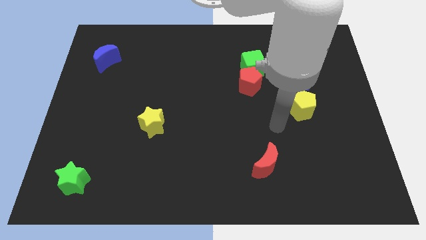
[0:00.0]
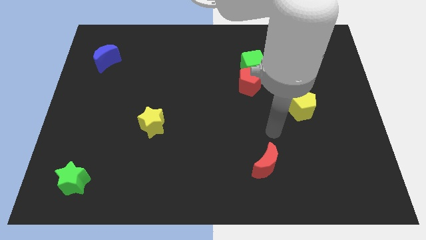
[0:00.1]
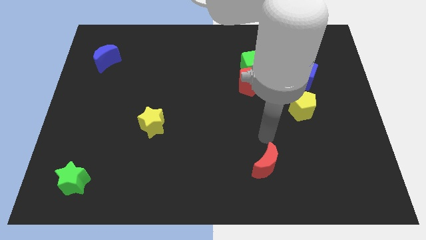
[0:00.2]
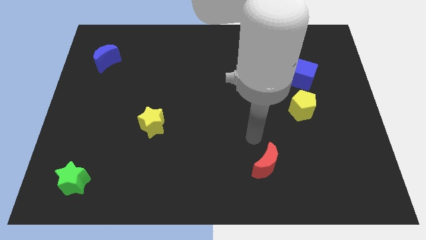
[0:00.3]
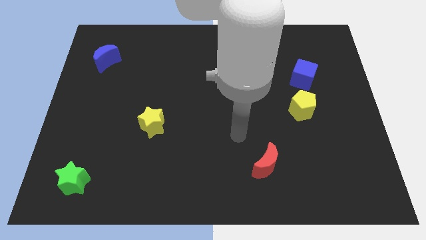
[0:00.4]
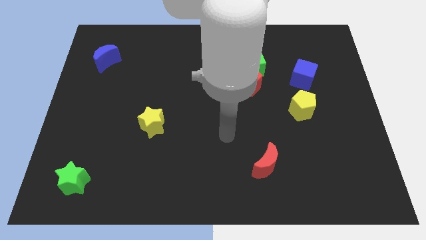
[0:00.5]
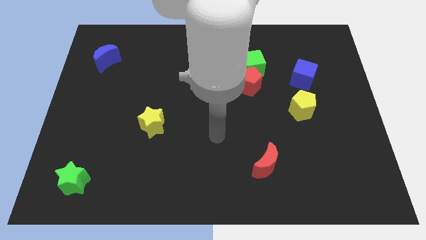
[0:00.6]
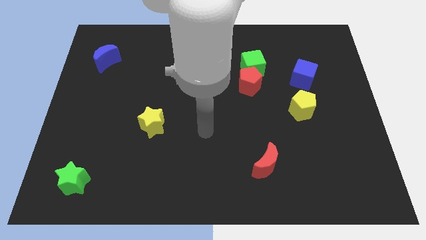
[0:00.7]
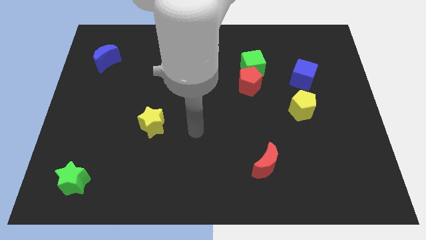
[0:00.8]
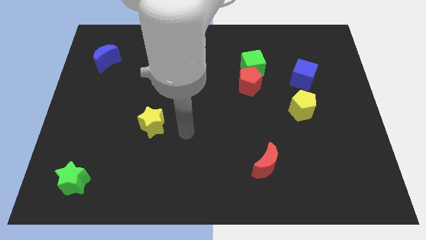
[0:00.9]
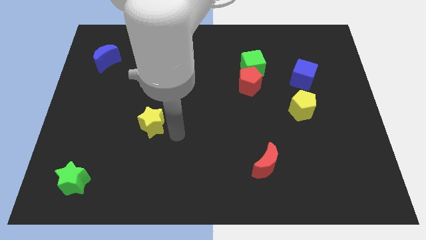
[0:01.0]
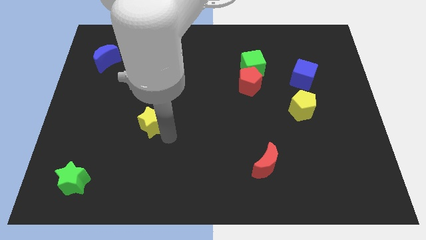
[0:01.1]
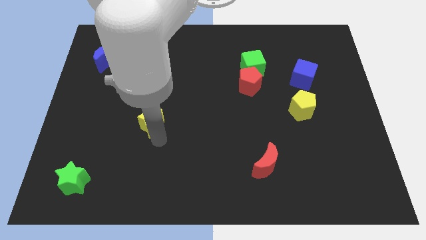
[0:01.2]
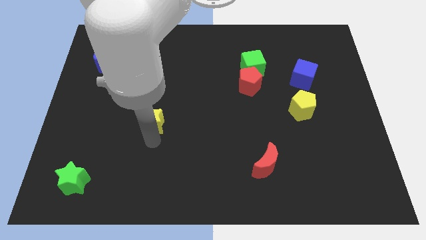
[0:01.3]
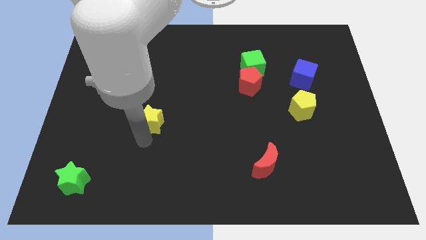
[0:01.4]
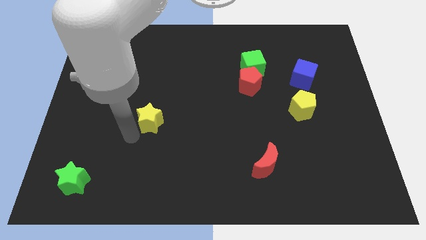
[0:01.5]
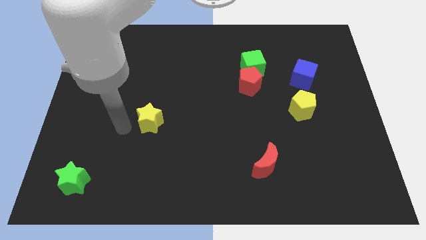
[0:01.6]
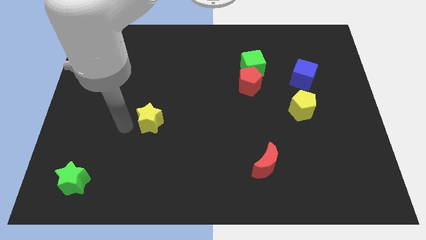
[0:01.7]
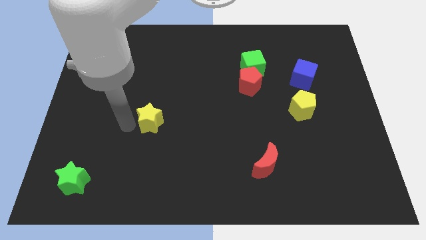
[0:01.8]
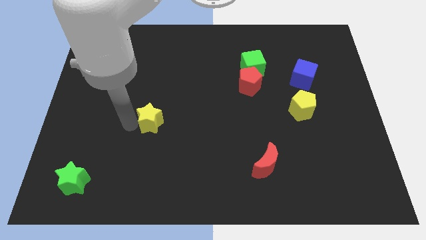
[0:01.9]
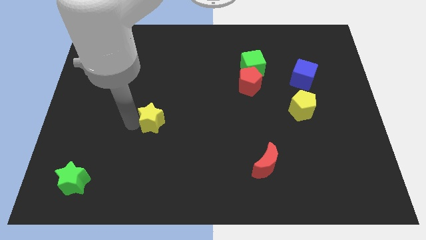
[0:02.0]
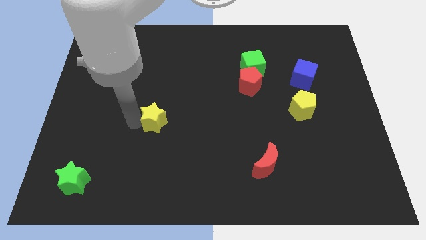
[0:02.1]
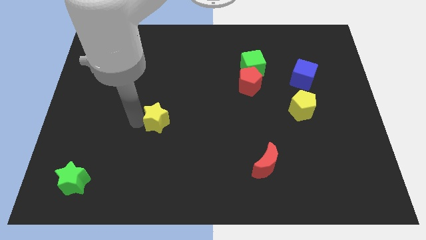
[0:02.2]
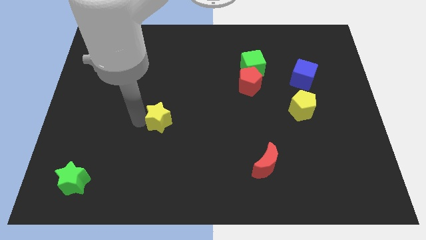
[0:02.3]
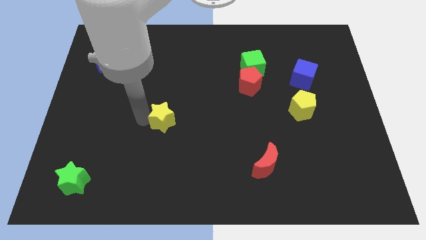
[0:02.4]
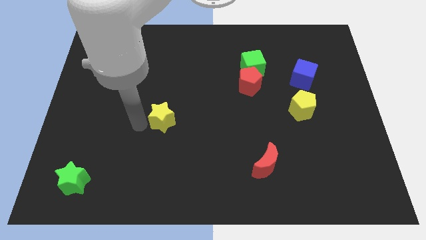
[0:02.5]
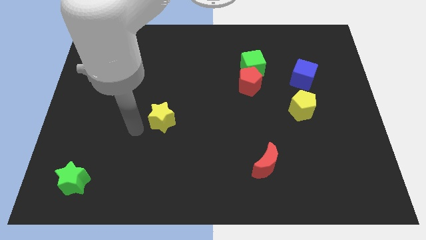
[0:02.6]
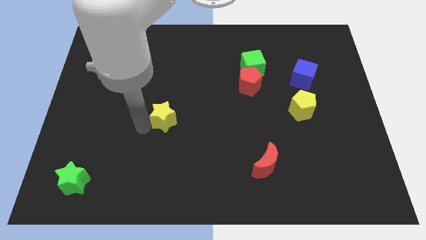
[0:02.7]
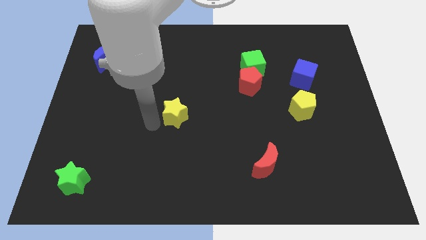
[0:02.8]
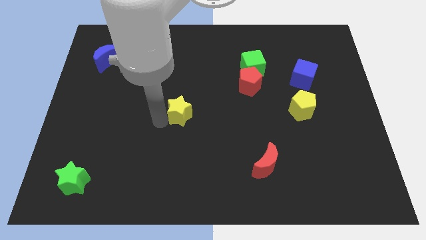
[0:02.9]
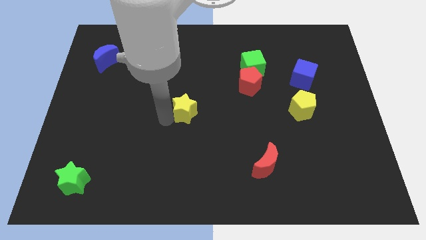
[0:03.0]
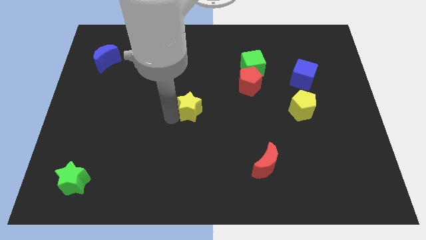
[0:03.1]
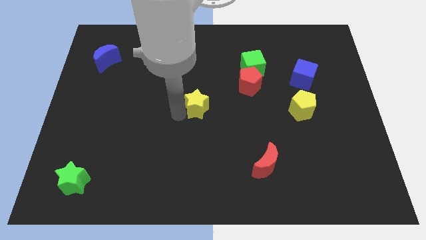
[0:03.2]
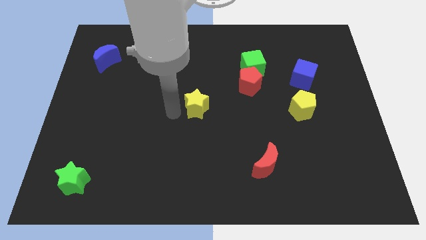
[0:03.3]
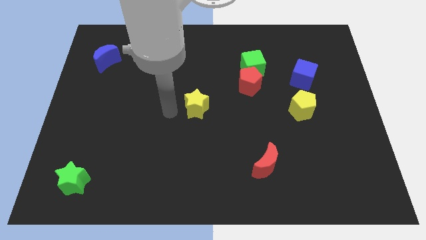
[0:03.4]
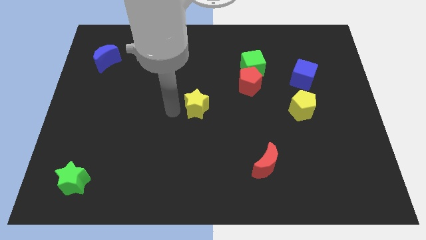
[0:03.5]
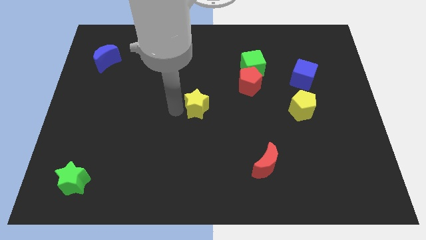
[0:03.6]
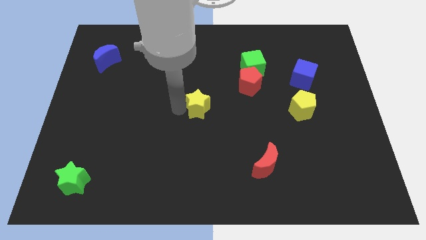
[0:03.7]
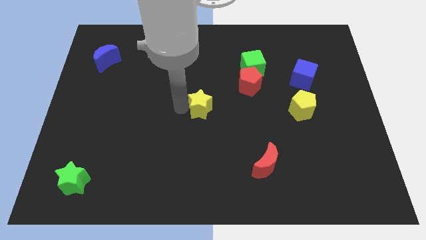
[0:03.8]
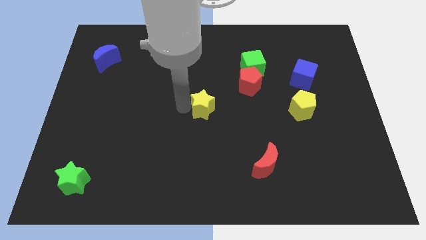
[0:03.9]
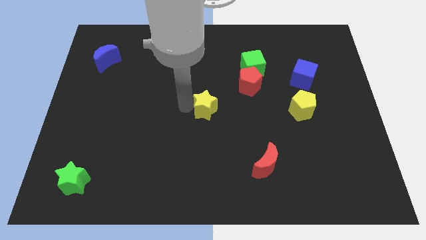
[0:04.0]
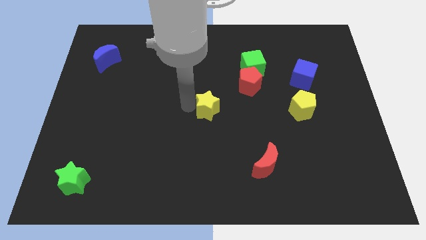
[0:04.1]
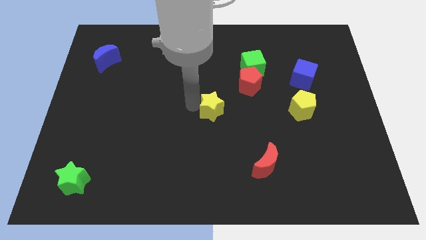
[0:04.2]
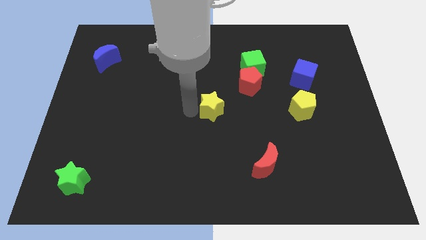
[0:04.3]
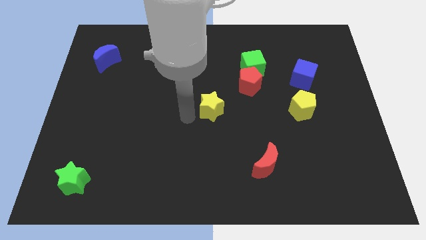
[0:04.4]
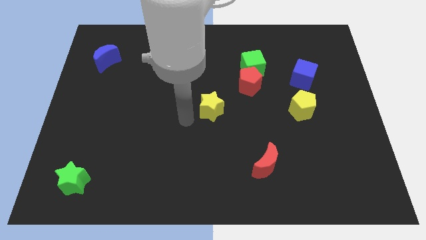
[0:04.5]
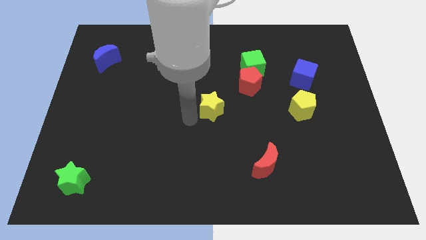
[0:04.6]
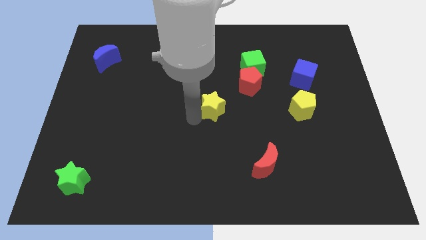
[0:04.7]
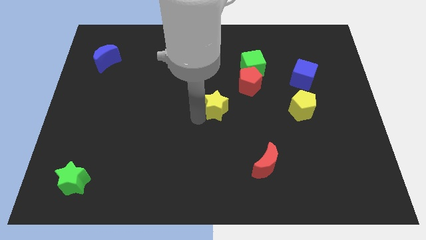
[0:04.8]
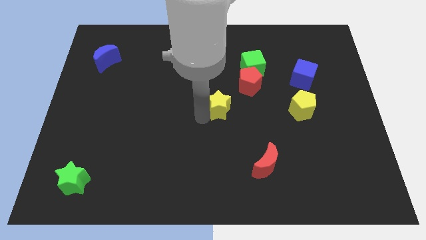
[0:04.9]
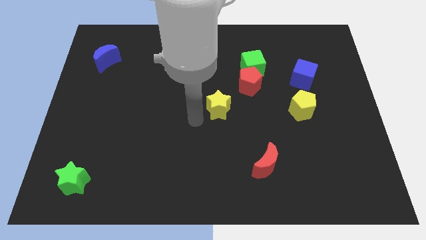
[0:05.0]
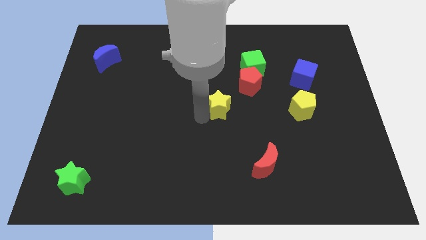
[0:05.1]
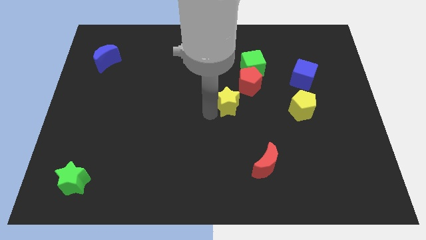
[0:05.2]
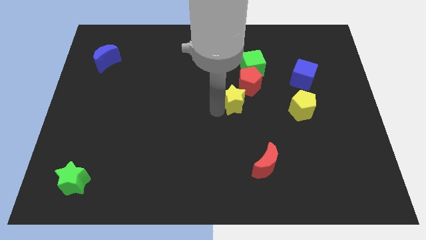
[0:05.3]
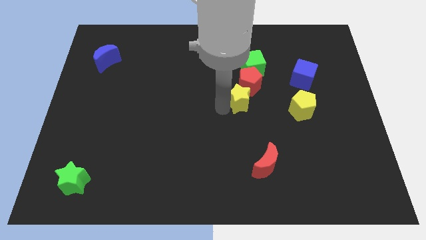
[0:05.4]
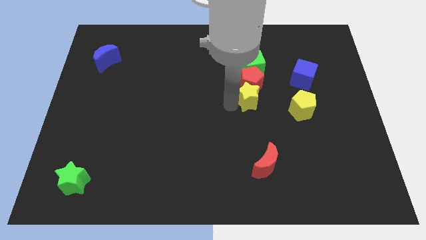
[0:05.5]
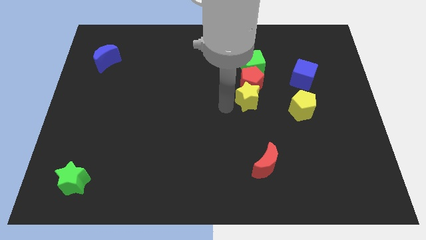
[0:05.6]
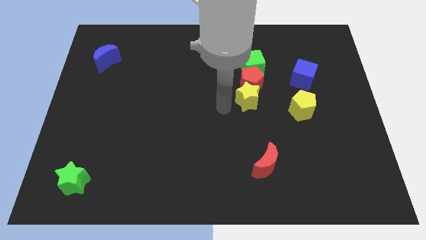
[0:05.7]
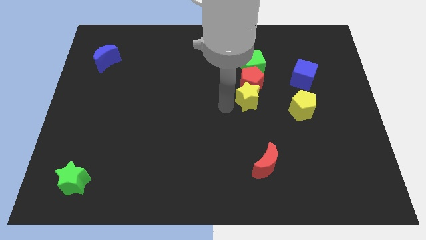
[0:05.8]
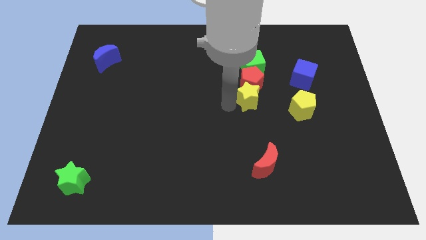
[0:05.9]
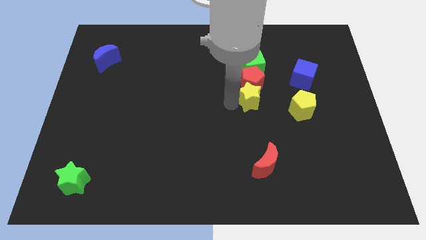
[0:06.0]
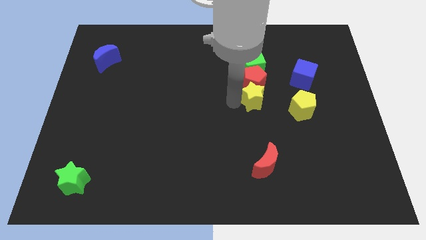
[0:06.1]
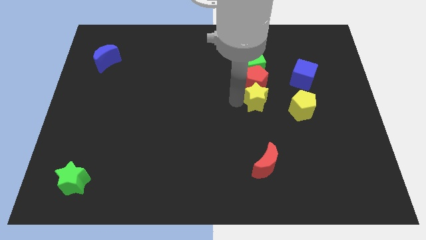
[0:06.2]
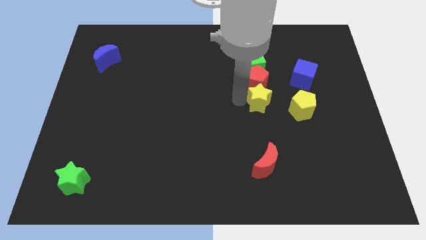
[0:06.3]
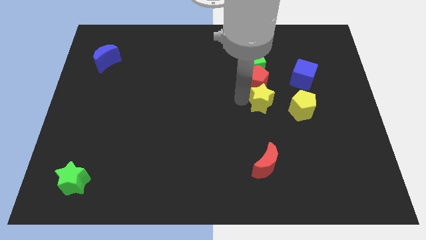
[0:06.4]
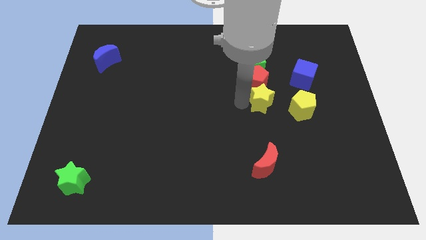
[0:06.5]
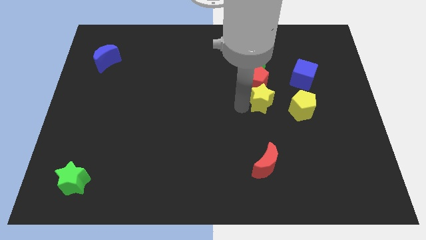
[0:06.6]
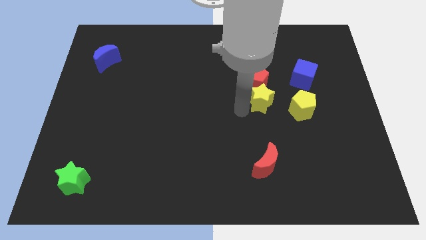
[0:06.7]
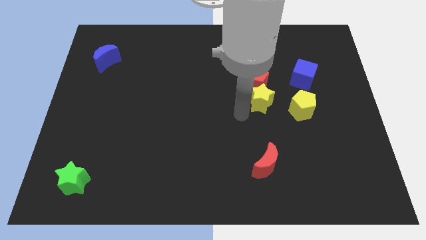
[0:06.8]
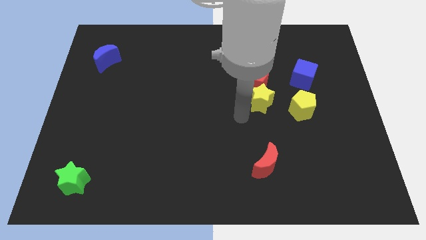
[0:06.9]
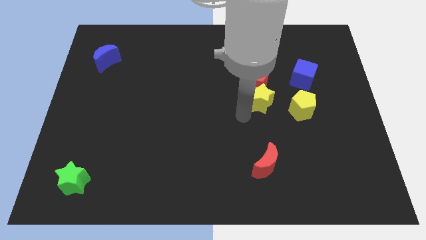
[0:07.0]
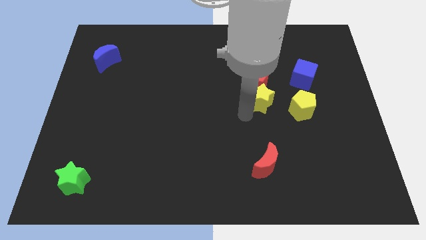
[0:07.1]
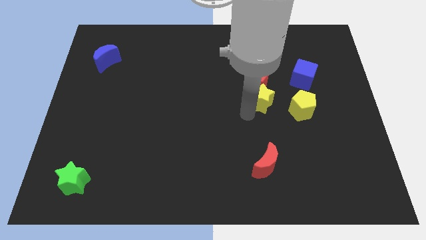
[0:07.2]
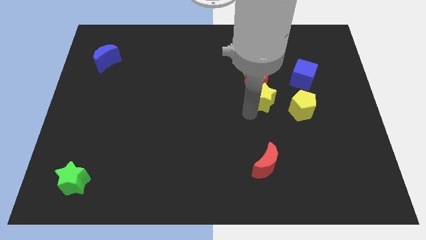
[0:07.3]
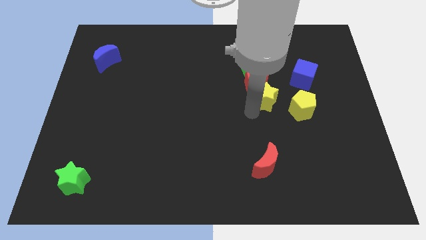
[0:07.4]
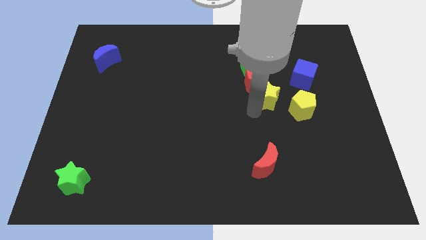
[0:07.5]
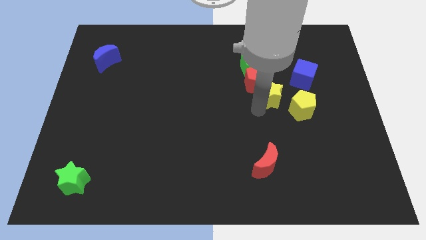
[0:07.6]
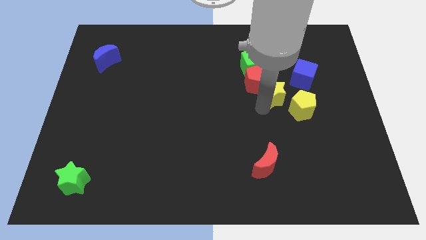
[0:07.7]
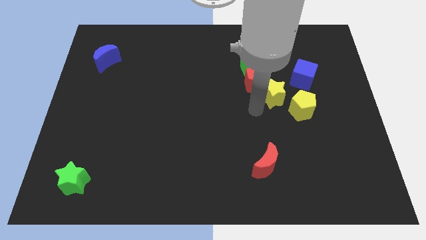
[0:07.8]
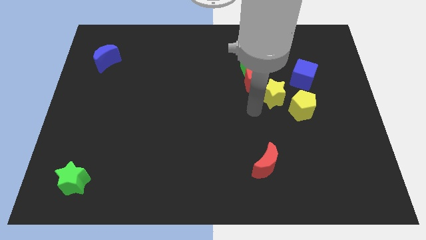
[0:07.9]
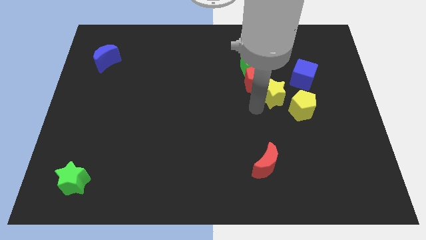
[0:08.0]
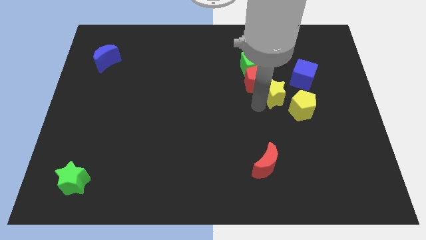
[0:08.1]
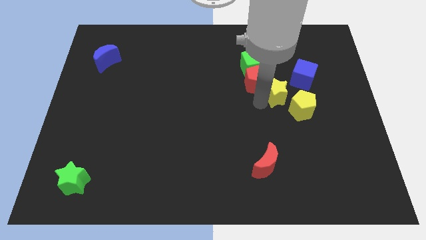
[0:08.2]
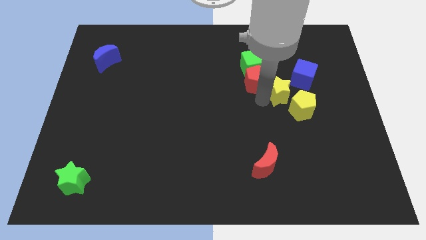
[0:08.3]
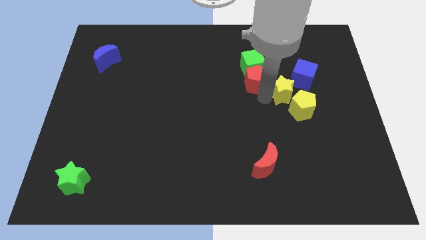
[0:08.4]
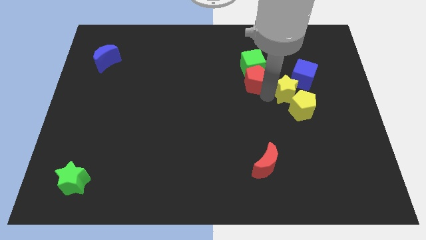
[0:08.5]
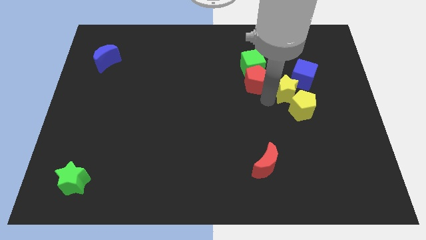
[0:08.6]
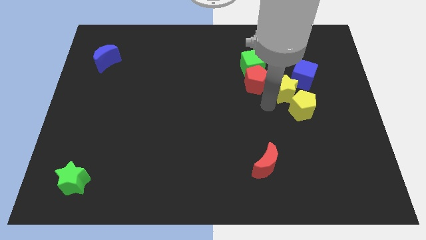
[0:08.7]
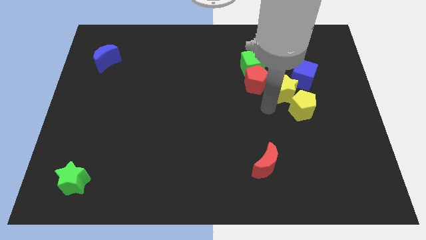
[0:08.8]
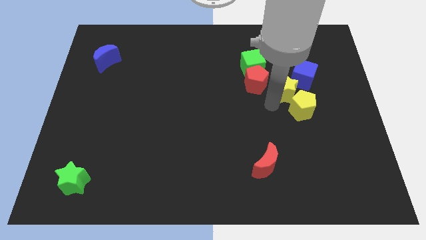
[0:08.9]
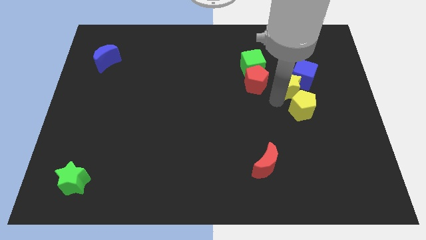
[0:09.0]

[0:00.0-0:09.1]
move the yellow star to the blue cube
